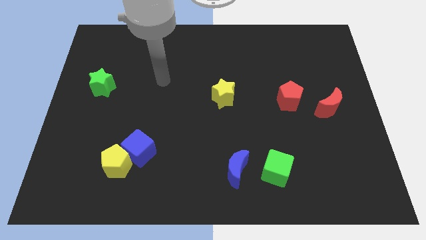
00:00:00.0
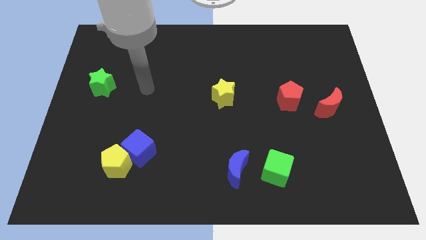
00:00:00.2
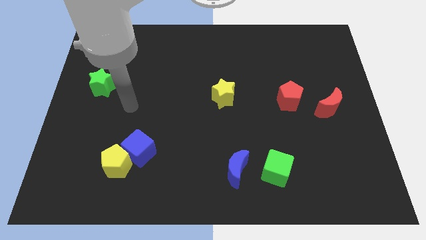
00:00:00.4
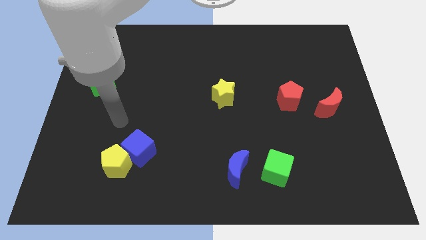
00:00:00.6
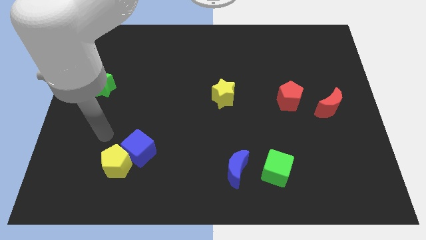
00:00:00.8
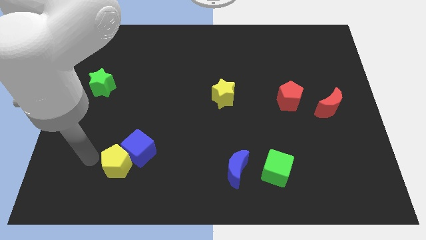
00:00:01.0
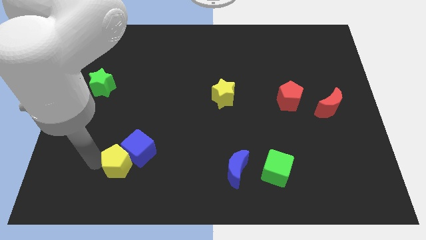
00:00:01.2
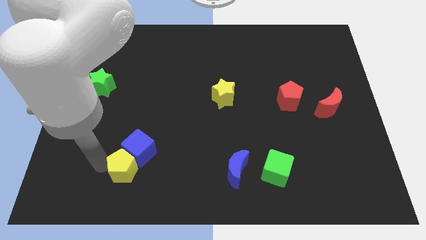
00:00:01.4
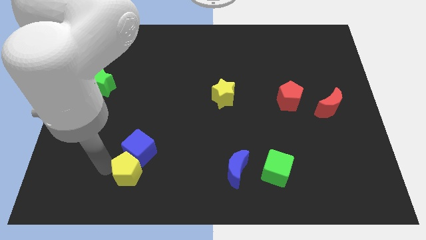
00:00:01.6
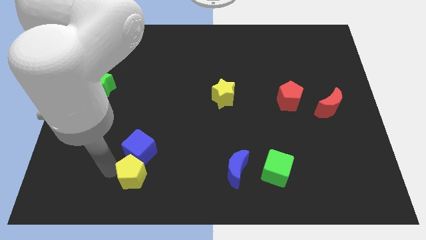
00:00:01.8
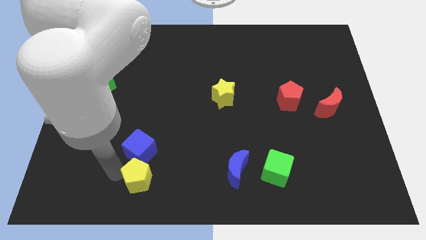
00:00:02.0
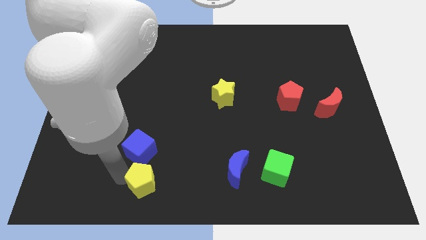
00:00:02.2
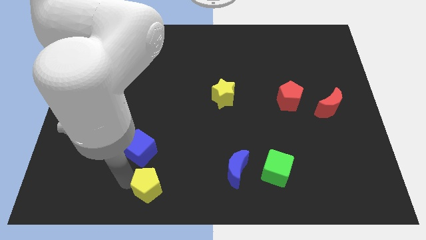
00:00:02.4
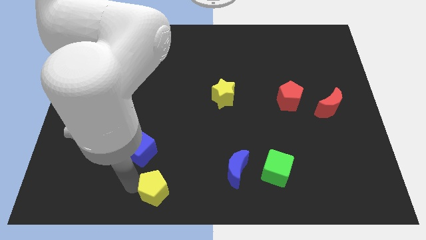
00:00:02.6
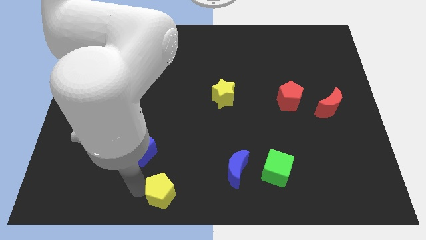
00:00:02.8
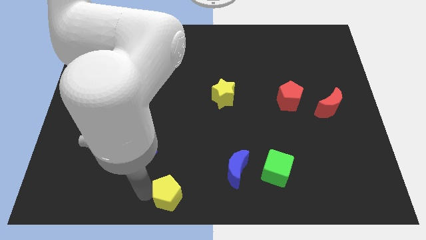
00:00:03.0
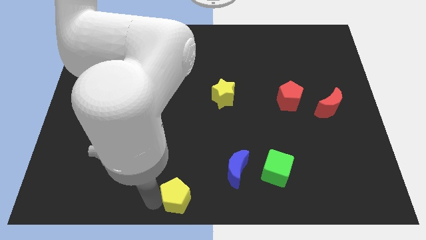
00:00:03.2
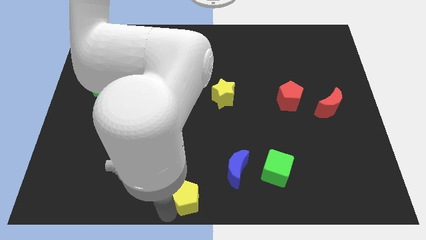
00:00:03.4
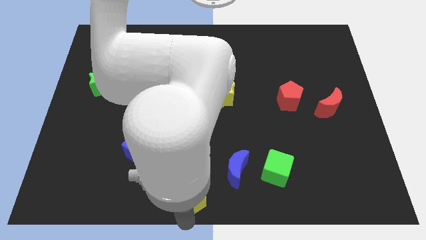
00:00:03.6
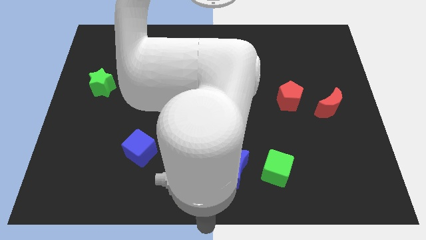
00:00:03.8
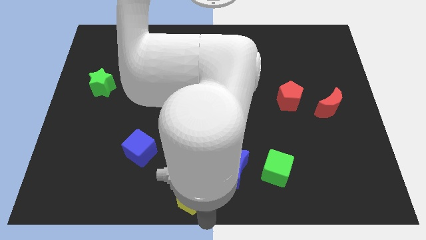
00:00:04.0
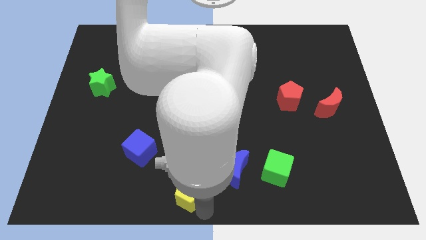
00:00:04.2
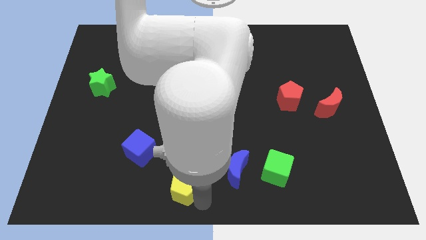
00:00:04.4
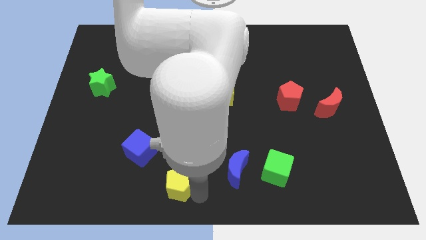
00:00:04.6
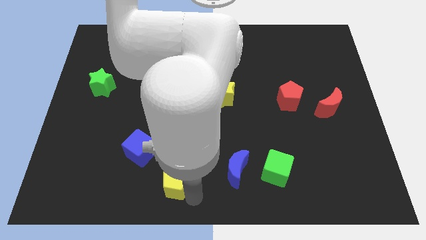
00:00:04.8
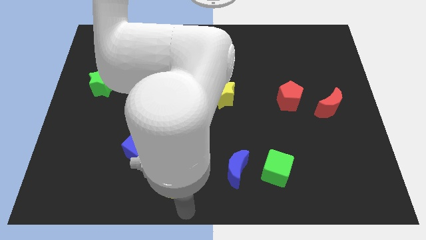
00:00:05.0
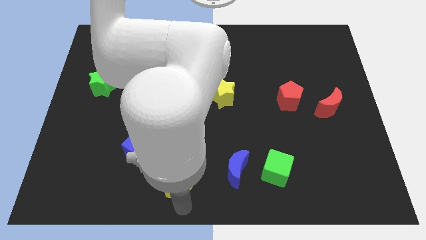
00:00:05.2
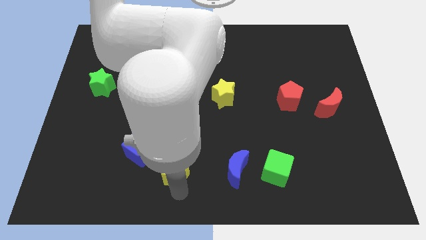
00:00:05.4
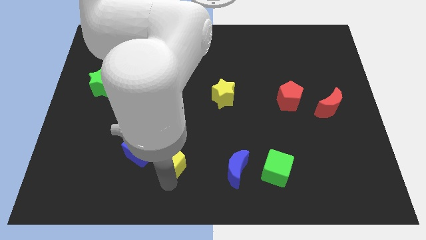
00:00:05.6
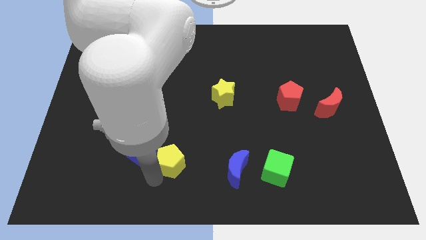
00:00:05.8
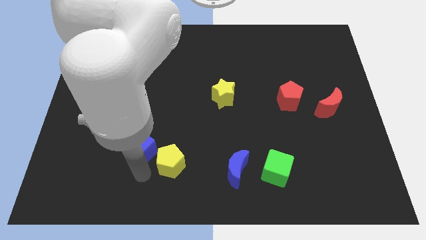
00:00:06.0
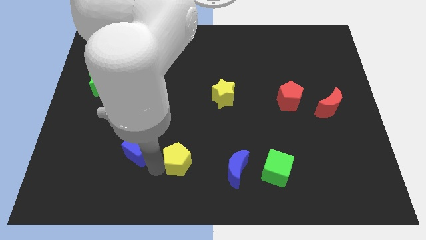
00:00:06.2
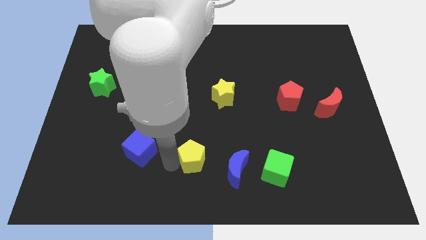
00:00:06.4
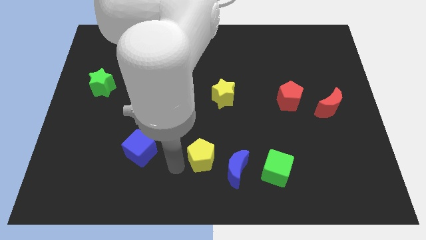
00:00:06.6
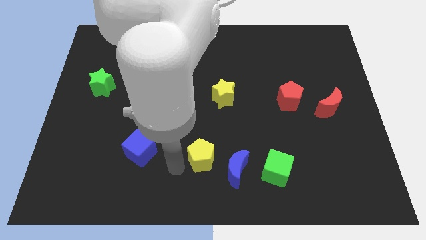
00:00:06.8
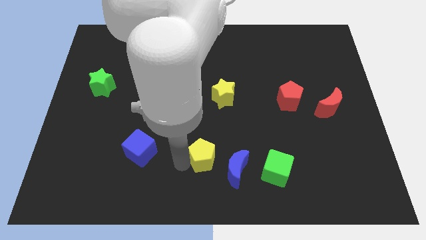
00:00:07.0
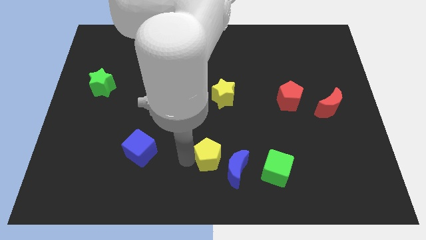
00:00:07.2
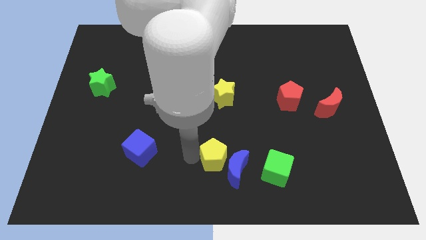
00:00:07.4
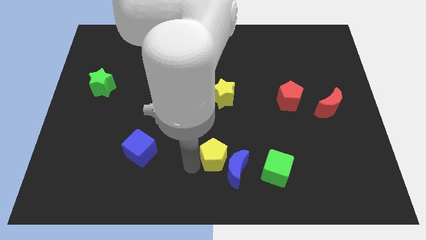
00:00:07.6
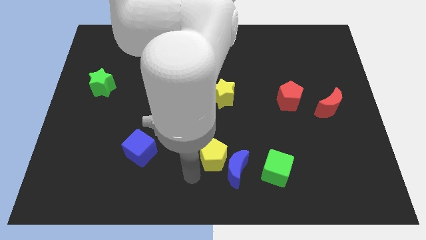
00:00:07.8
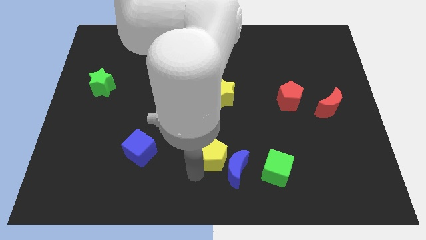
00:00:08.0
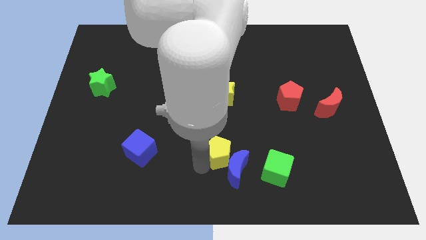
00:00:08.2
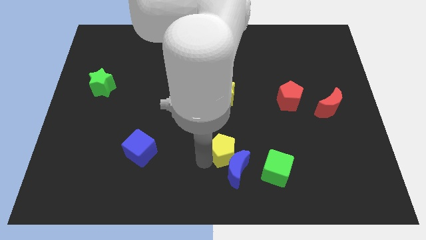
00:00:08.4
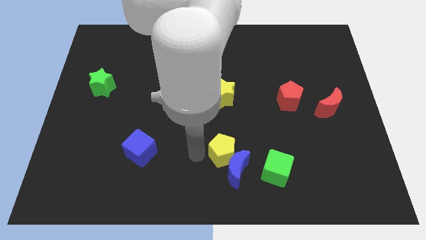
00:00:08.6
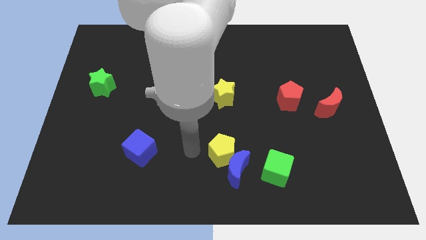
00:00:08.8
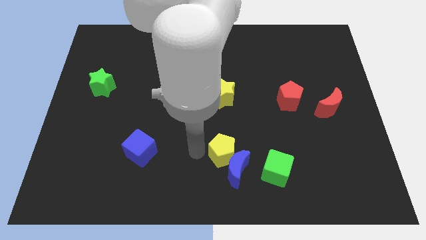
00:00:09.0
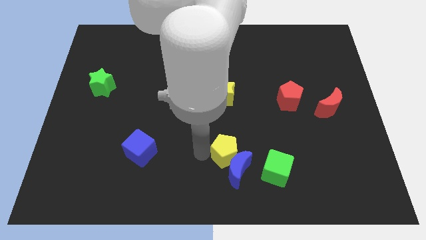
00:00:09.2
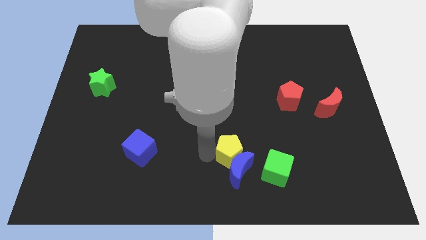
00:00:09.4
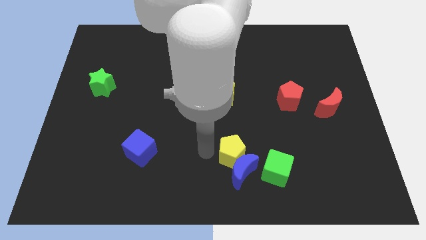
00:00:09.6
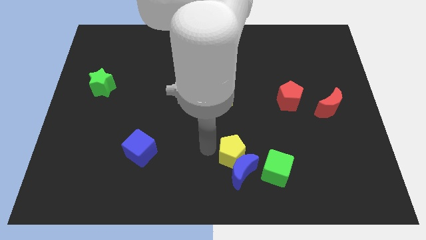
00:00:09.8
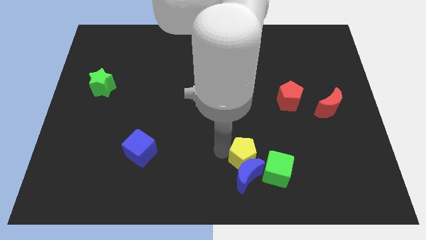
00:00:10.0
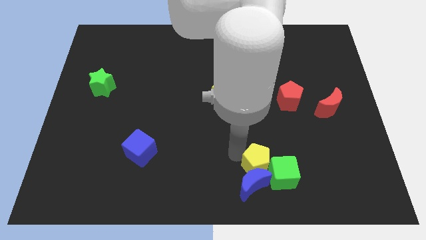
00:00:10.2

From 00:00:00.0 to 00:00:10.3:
move the yellow pentagon towards the green cube
